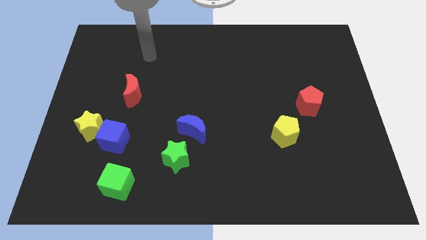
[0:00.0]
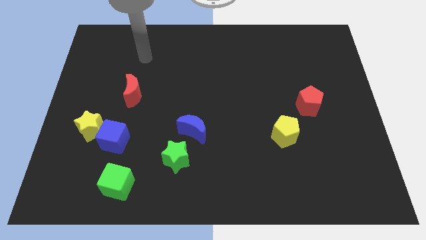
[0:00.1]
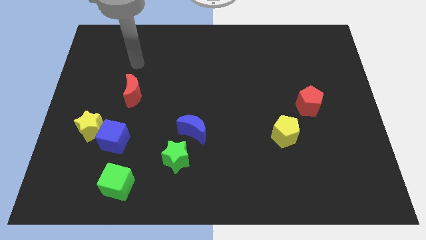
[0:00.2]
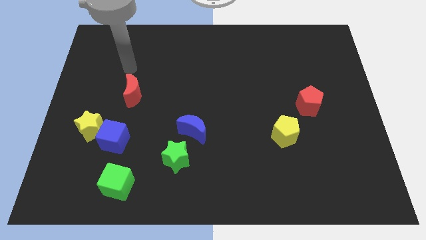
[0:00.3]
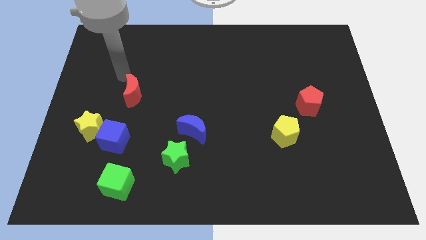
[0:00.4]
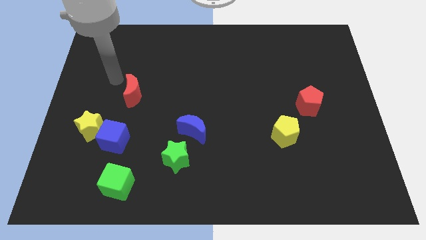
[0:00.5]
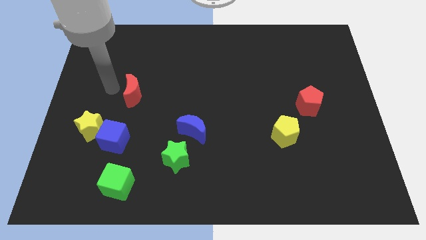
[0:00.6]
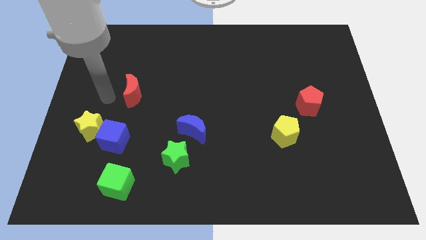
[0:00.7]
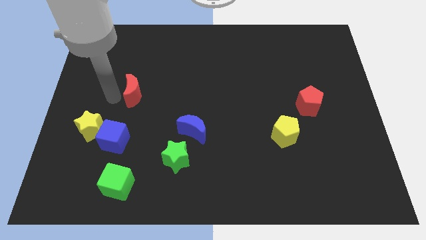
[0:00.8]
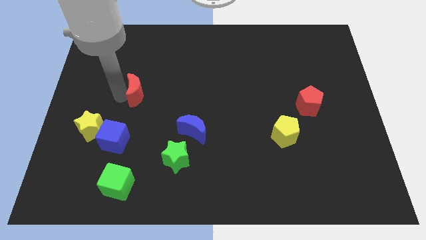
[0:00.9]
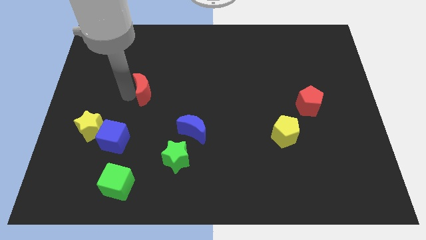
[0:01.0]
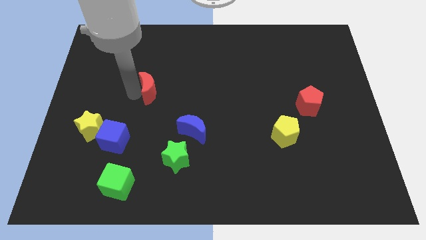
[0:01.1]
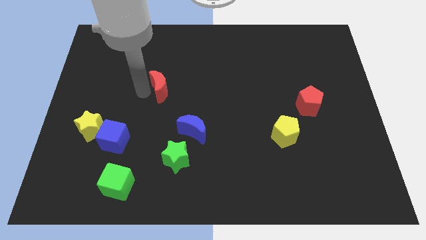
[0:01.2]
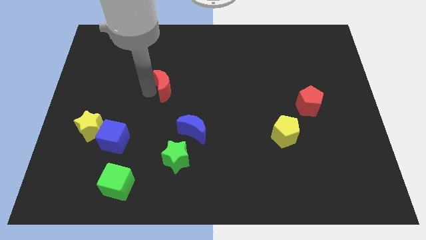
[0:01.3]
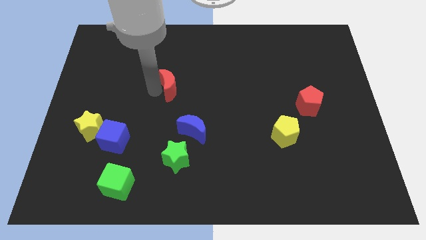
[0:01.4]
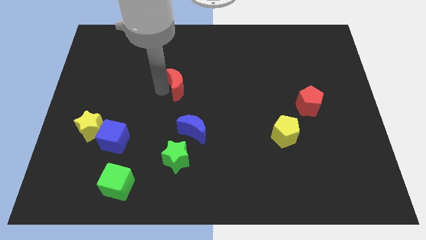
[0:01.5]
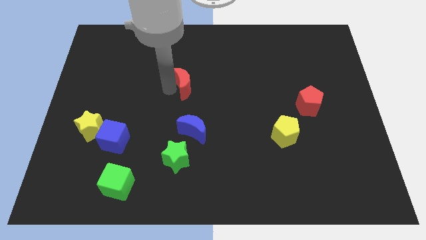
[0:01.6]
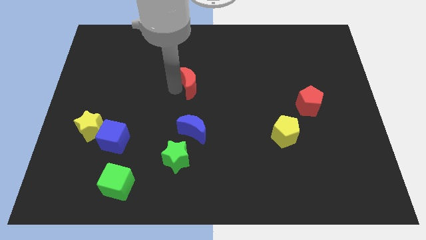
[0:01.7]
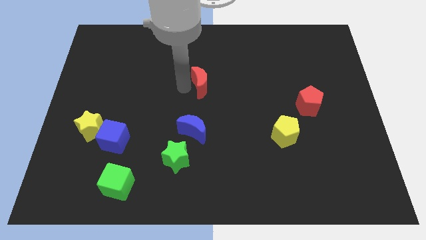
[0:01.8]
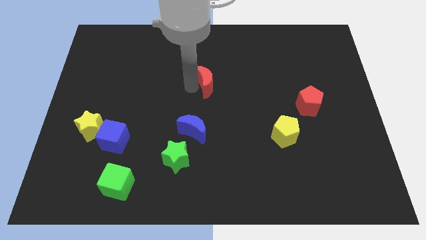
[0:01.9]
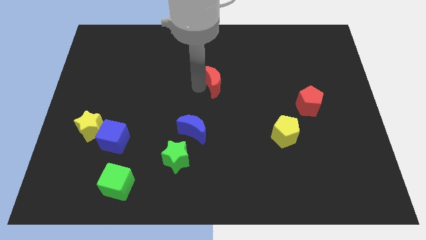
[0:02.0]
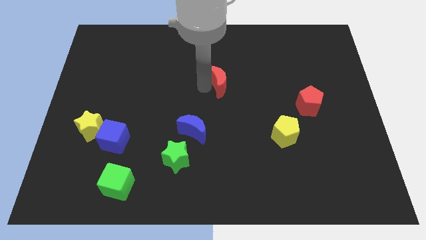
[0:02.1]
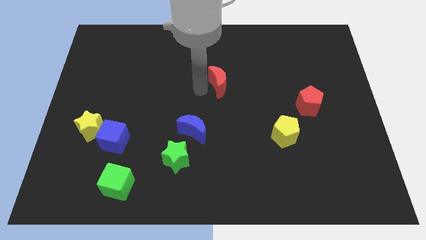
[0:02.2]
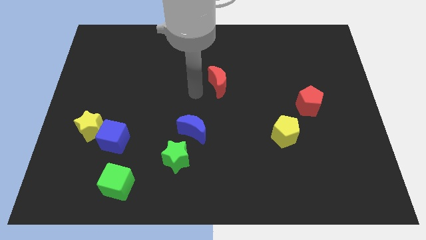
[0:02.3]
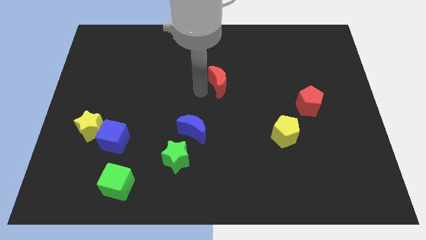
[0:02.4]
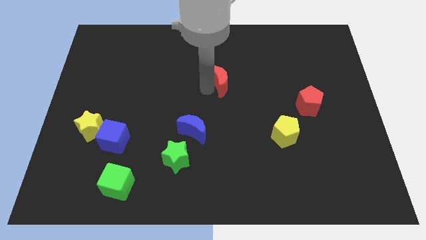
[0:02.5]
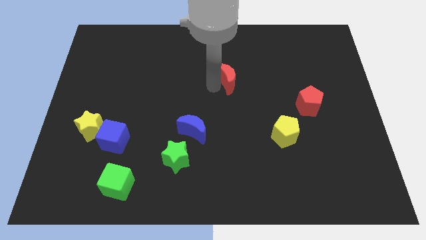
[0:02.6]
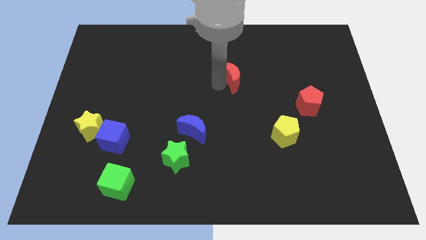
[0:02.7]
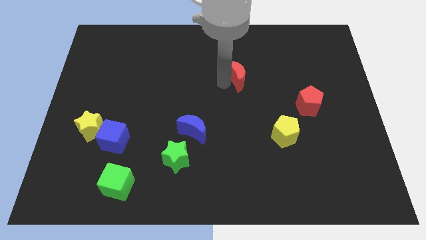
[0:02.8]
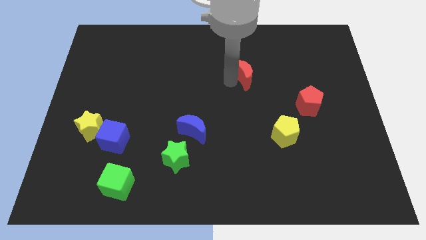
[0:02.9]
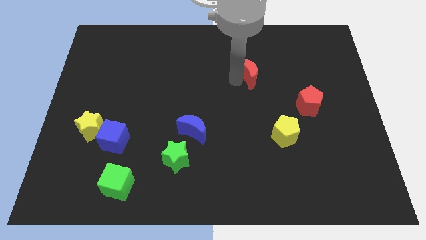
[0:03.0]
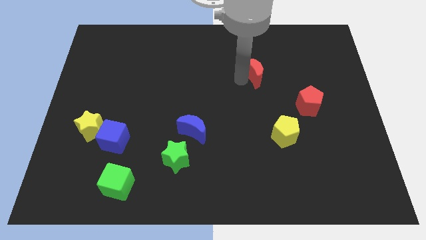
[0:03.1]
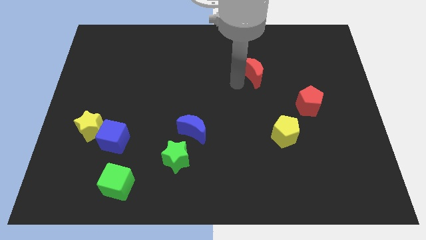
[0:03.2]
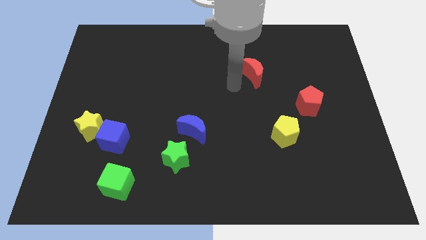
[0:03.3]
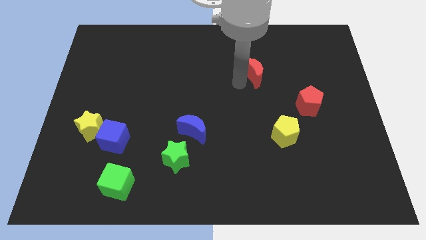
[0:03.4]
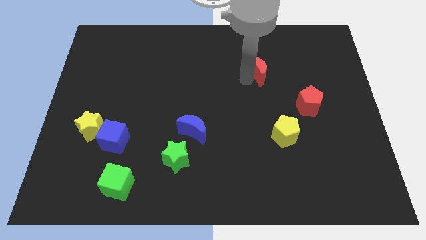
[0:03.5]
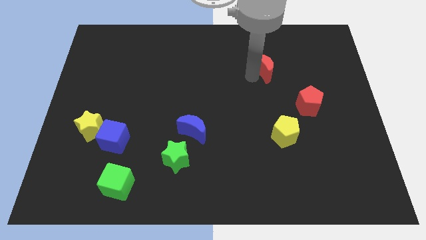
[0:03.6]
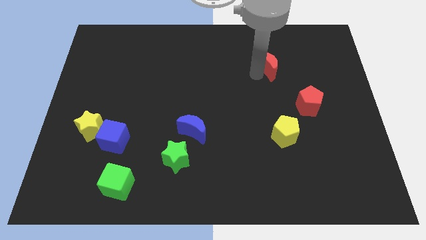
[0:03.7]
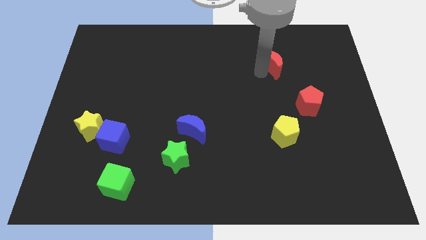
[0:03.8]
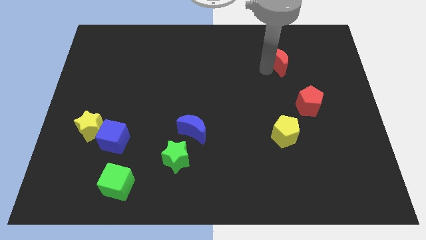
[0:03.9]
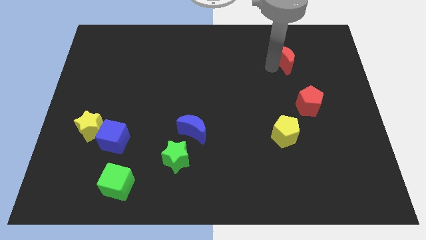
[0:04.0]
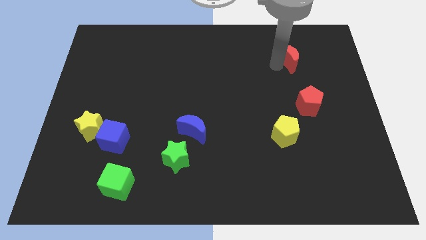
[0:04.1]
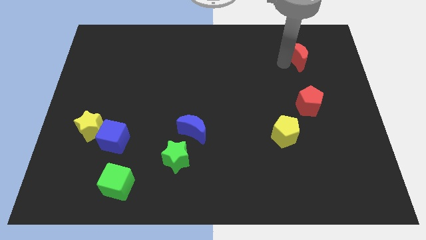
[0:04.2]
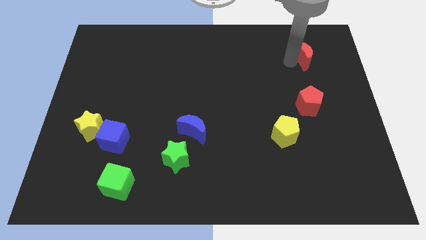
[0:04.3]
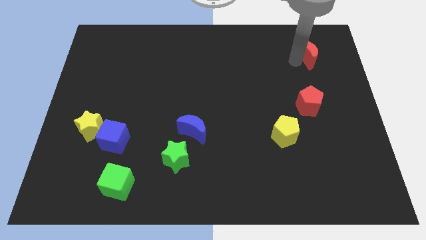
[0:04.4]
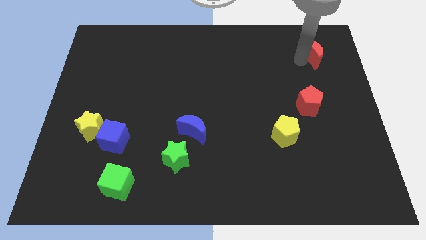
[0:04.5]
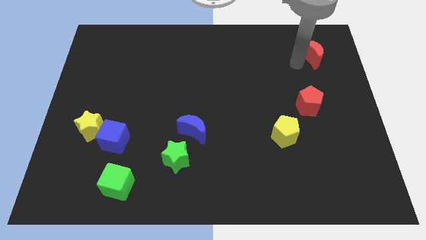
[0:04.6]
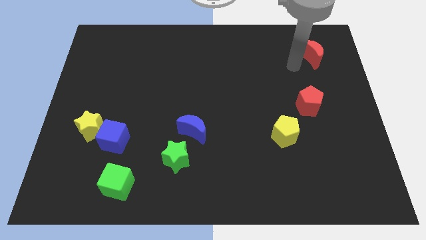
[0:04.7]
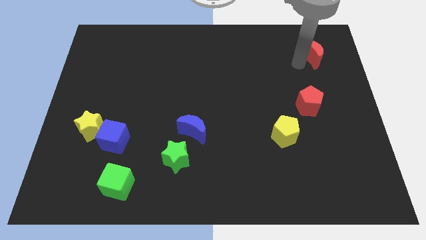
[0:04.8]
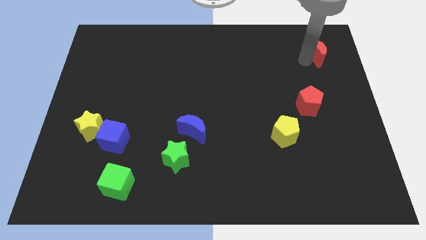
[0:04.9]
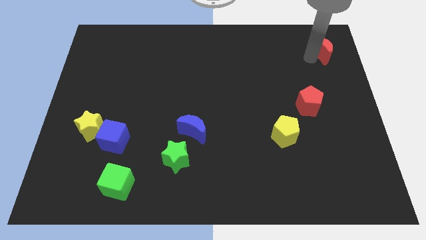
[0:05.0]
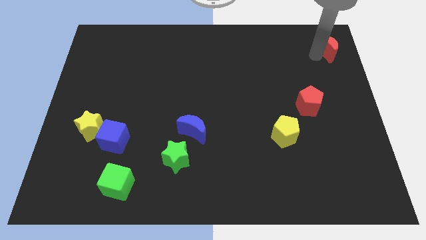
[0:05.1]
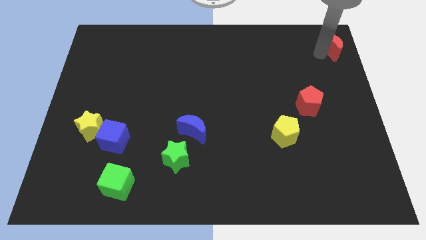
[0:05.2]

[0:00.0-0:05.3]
move the red moon to the top right

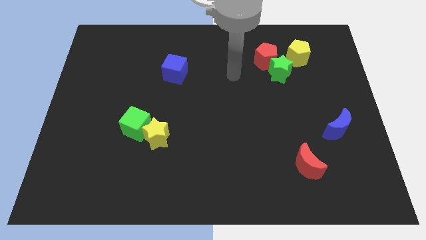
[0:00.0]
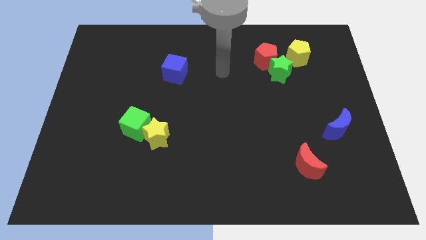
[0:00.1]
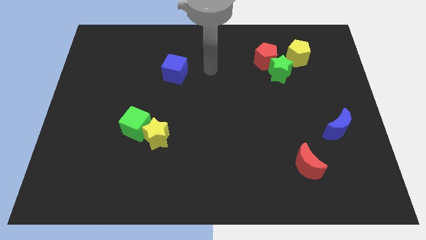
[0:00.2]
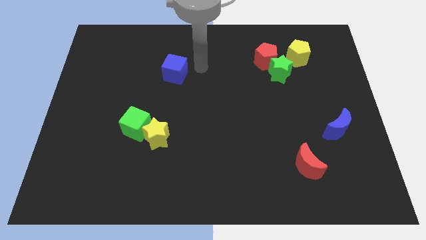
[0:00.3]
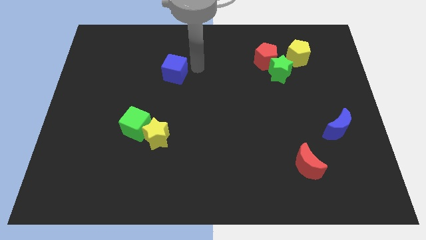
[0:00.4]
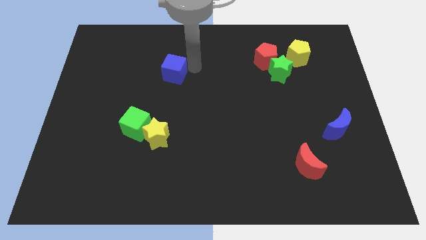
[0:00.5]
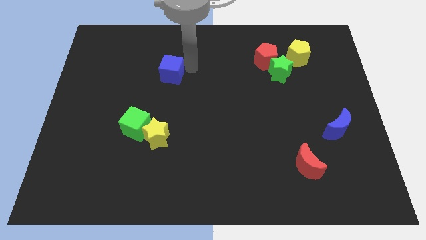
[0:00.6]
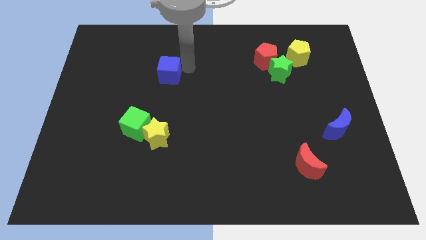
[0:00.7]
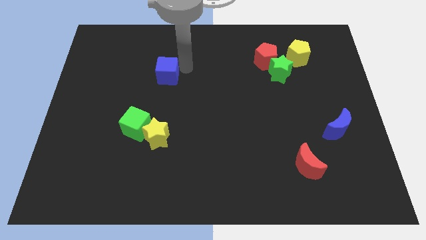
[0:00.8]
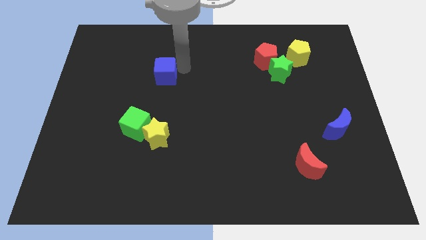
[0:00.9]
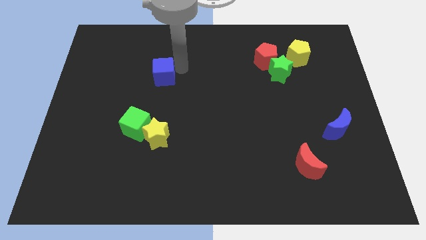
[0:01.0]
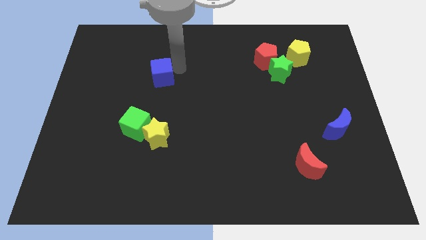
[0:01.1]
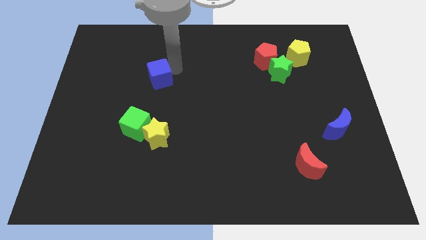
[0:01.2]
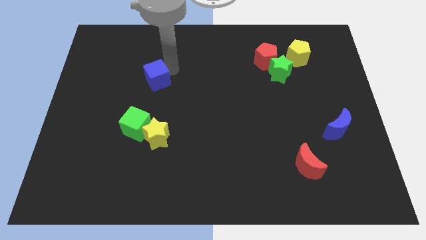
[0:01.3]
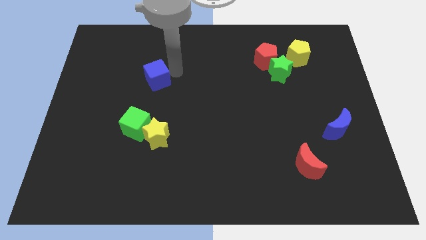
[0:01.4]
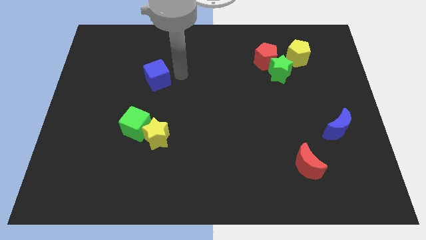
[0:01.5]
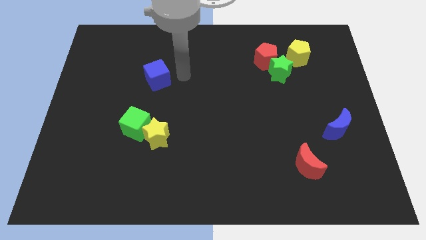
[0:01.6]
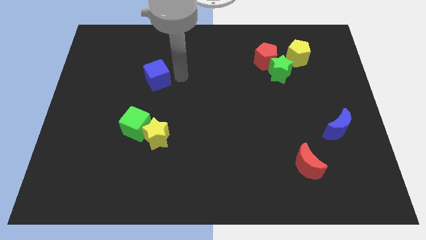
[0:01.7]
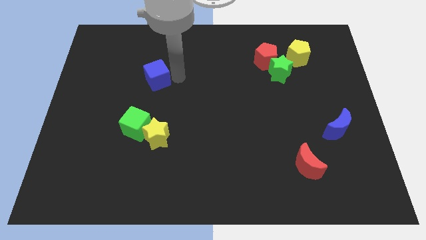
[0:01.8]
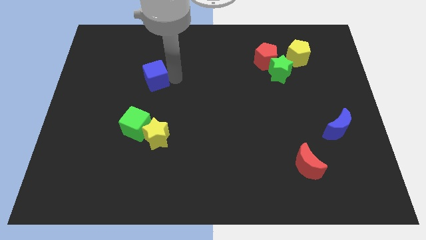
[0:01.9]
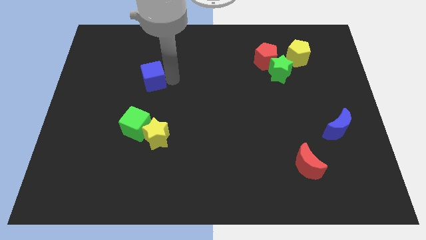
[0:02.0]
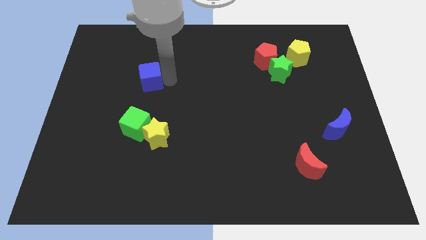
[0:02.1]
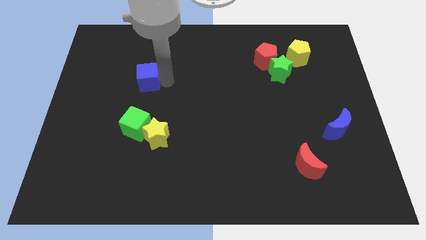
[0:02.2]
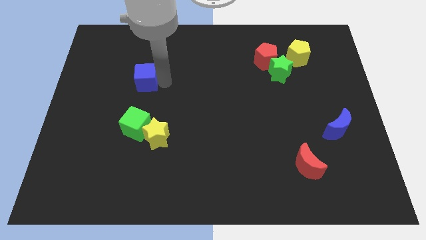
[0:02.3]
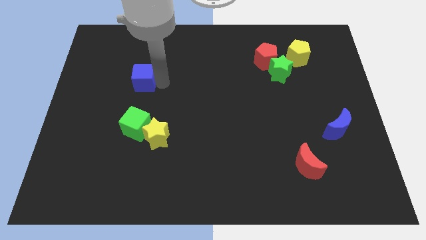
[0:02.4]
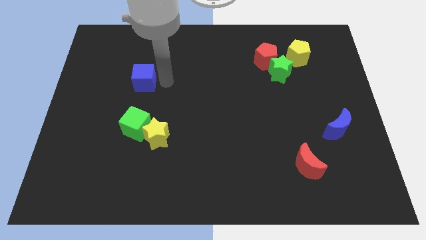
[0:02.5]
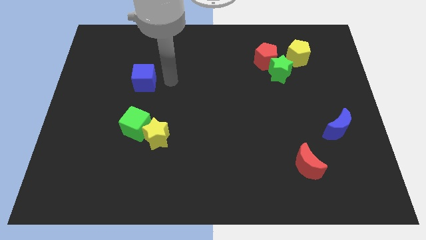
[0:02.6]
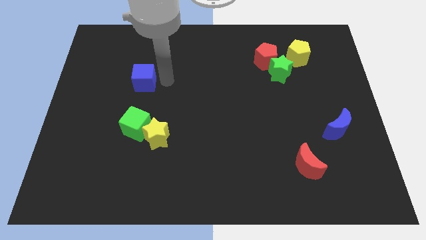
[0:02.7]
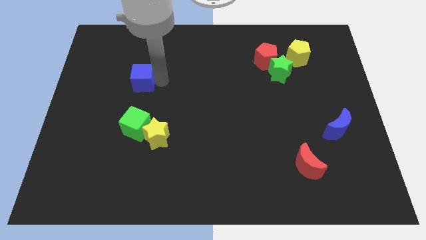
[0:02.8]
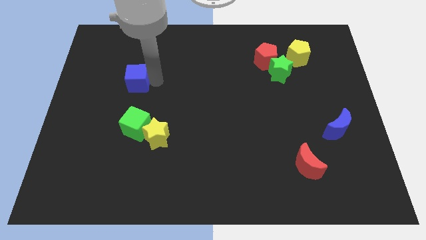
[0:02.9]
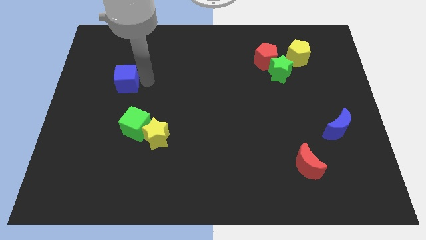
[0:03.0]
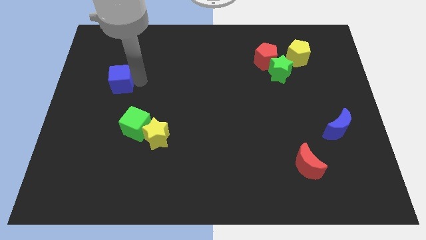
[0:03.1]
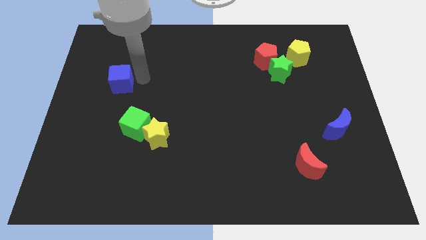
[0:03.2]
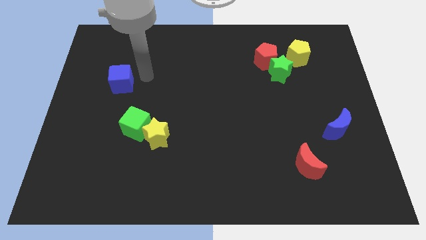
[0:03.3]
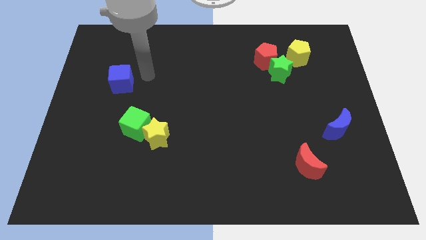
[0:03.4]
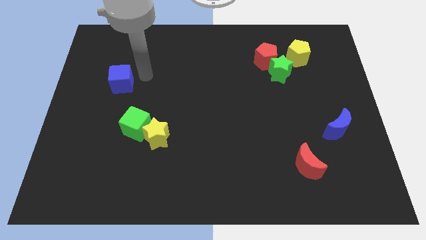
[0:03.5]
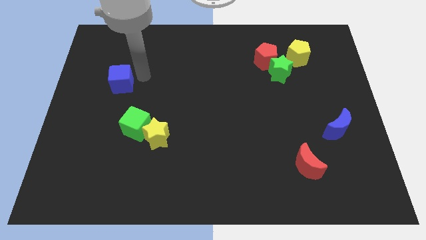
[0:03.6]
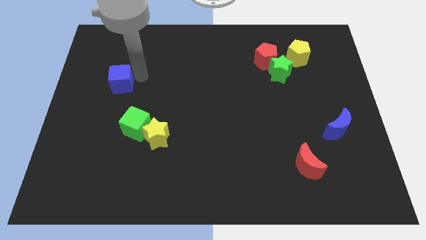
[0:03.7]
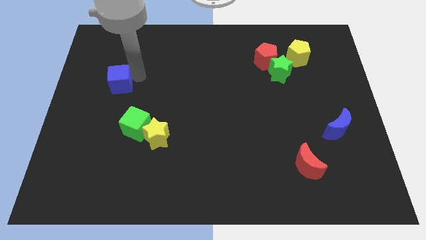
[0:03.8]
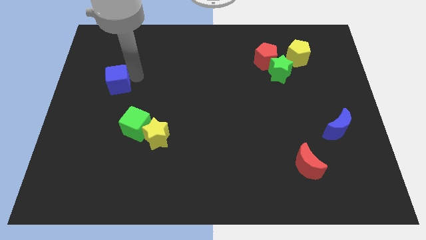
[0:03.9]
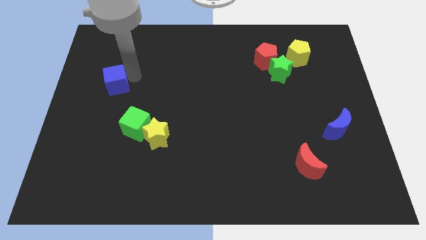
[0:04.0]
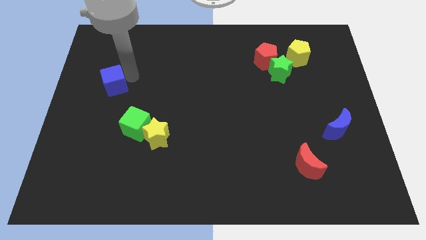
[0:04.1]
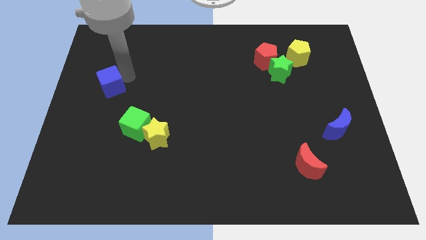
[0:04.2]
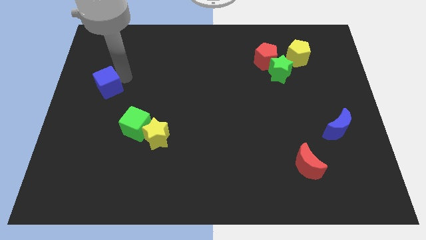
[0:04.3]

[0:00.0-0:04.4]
slide the blue cube to the left side
